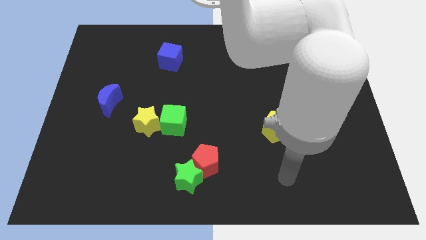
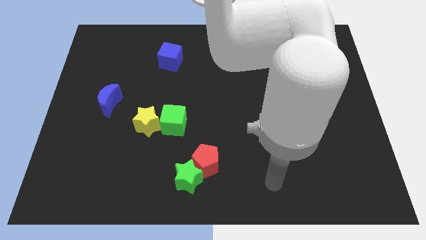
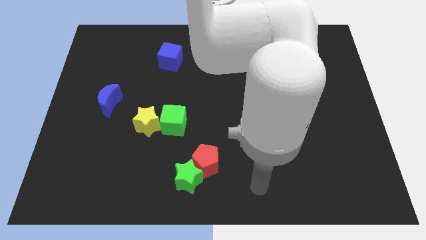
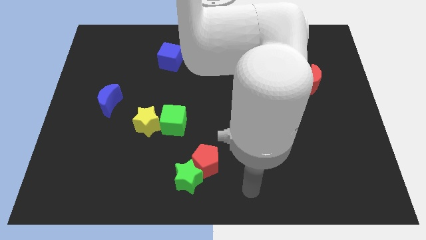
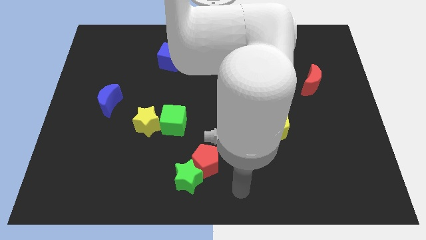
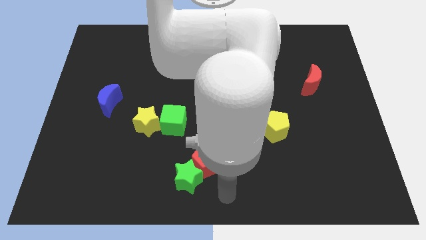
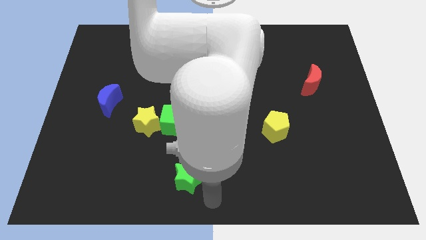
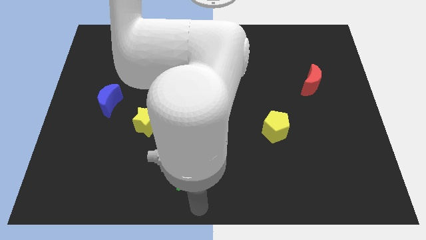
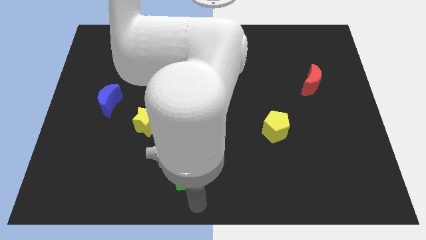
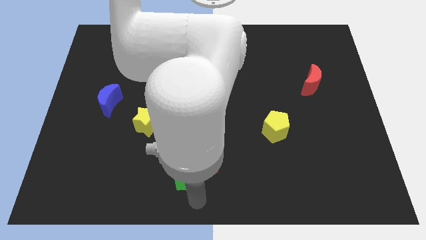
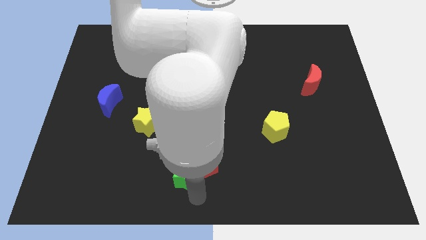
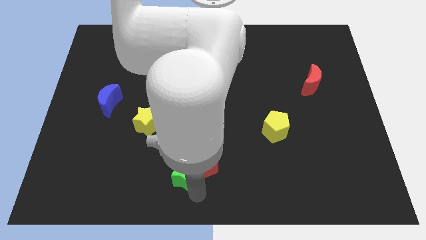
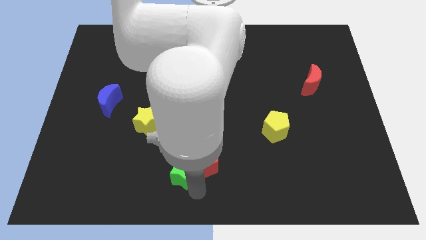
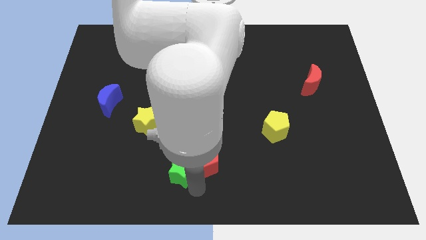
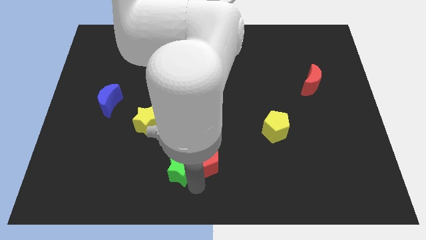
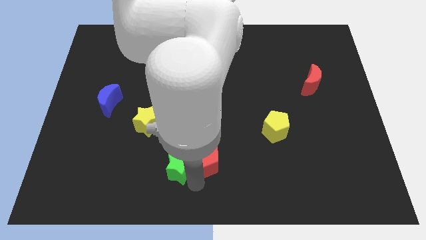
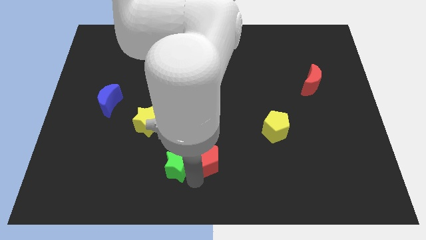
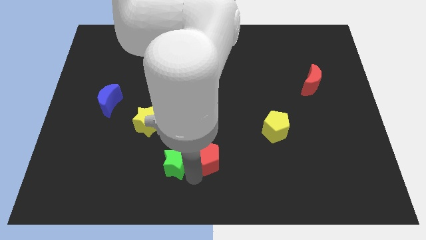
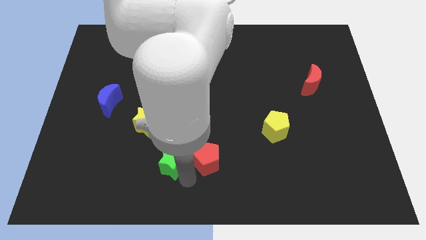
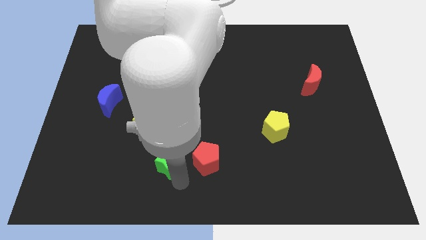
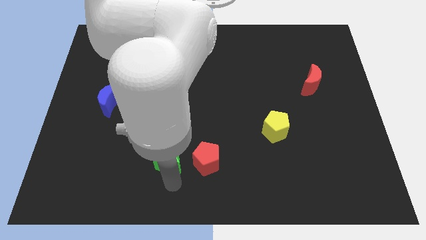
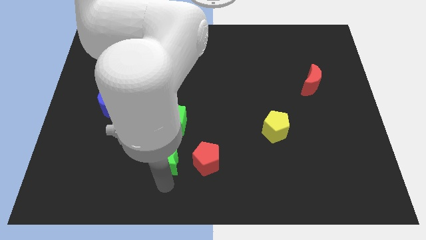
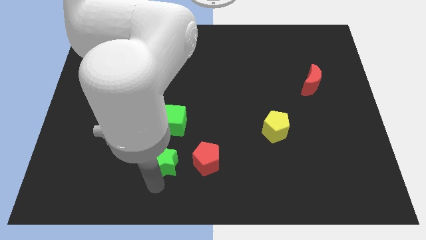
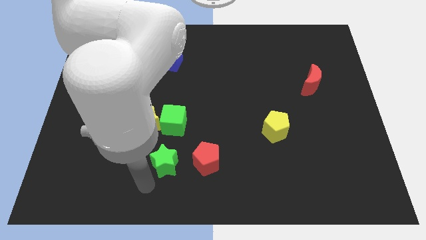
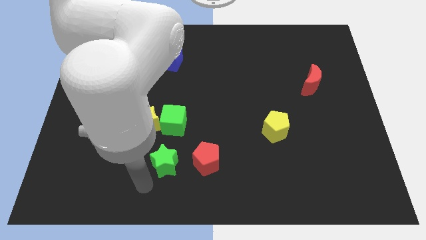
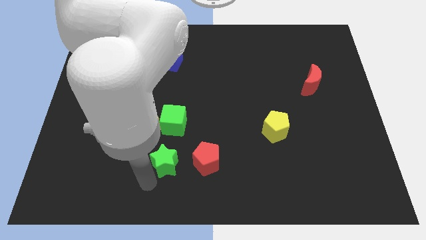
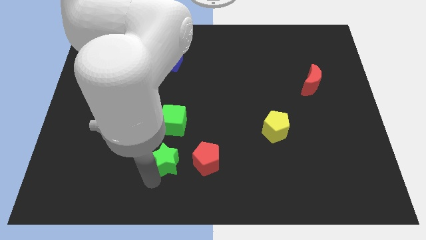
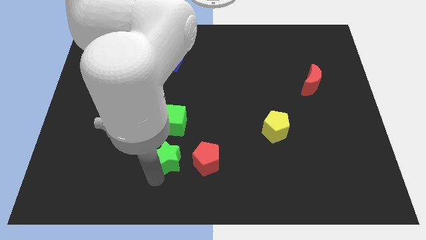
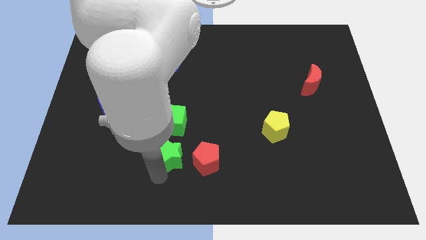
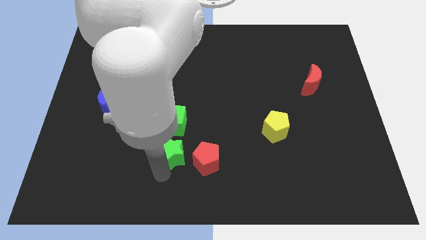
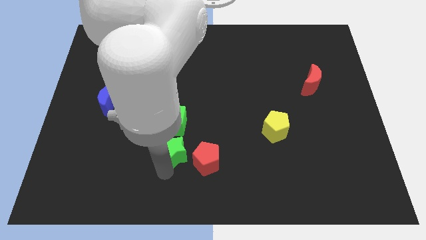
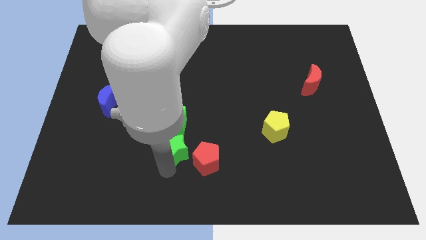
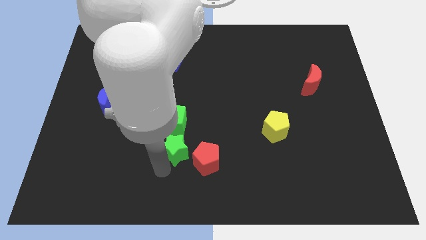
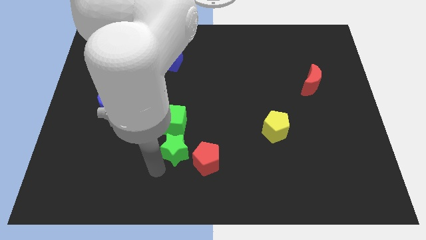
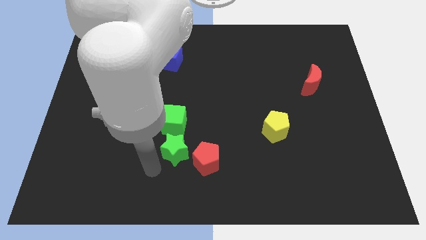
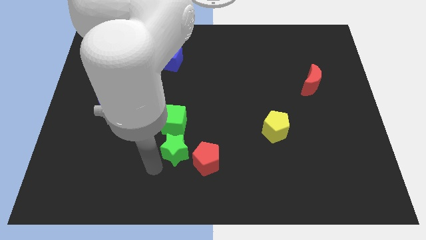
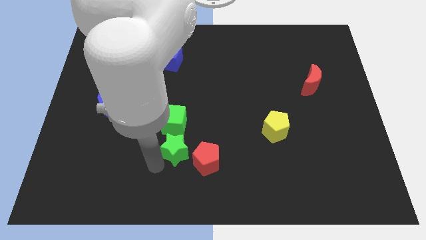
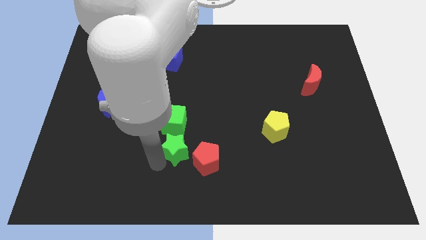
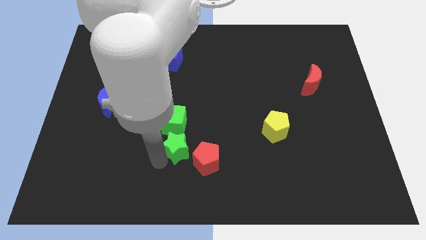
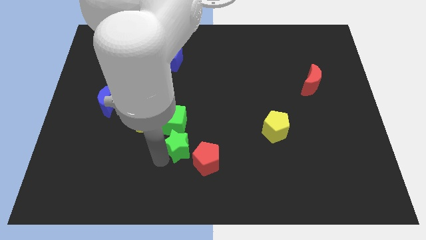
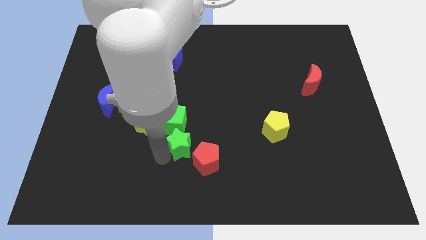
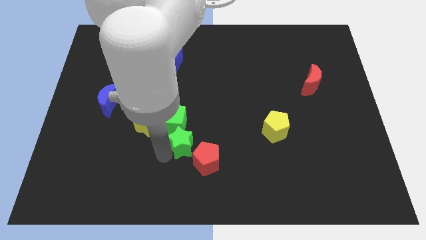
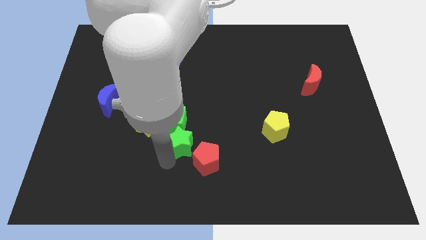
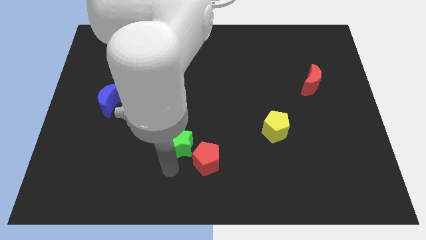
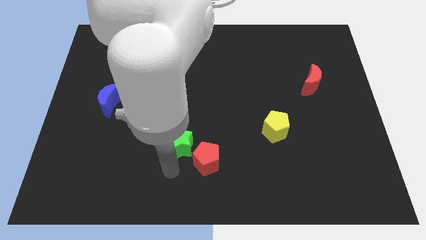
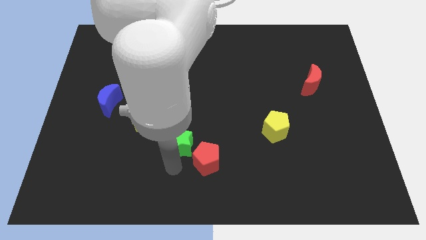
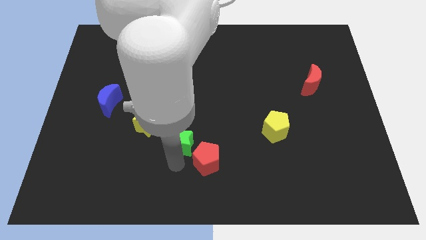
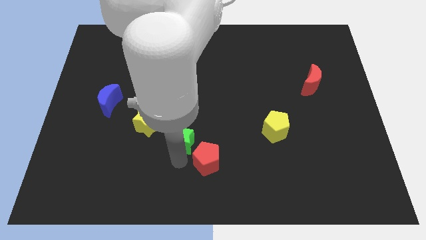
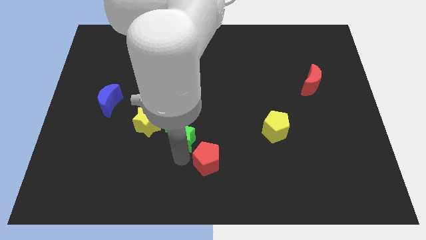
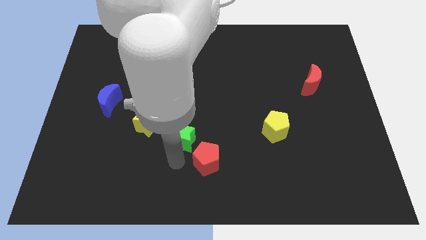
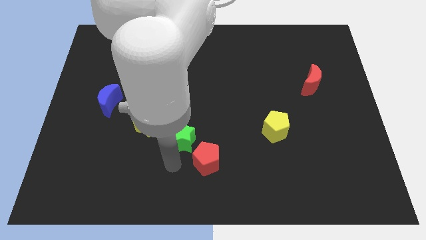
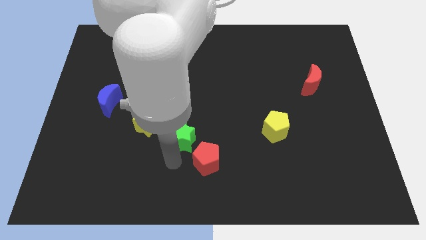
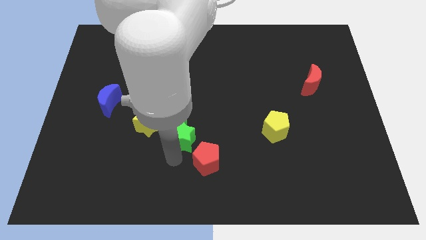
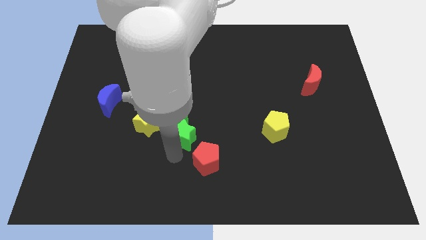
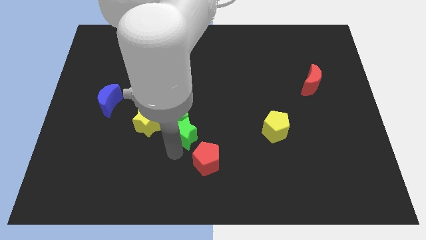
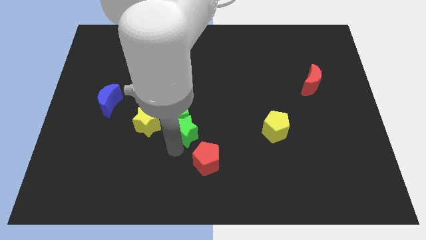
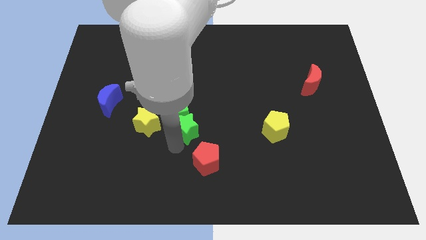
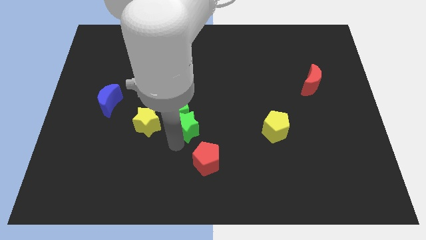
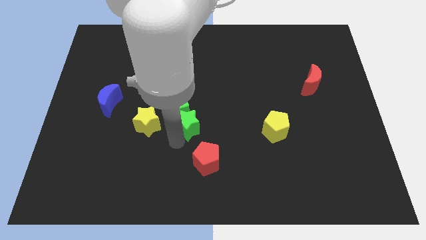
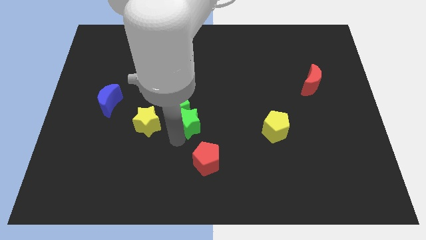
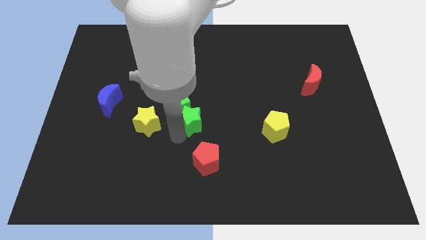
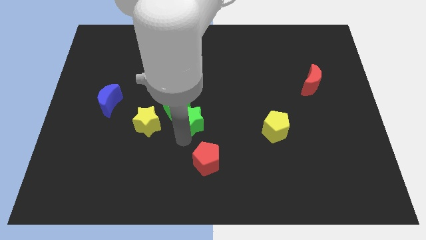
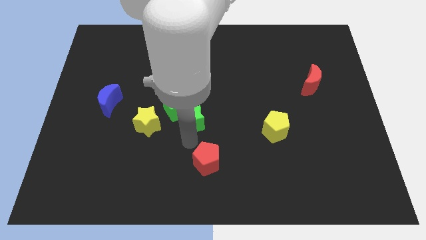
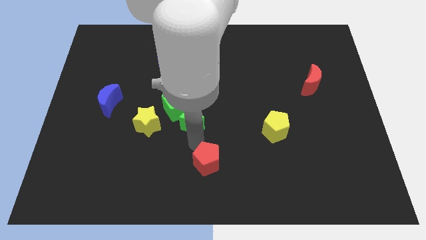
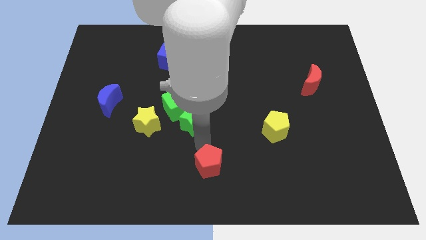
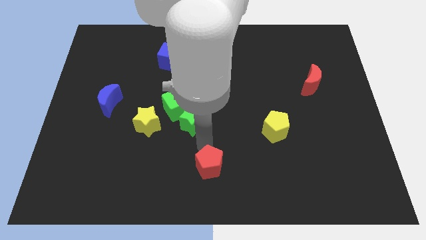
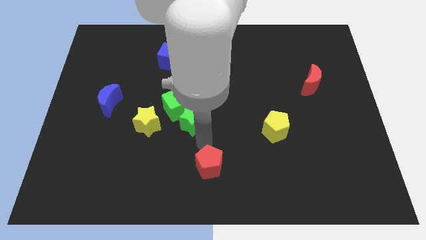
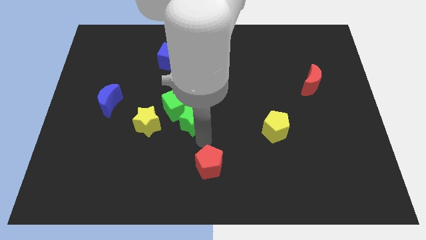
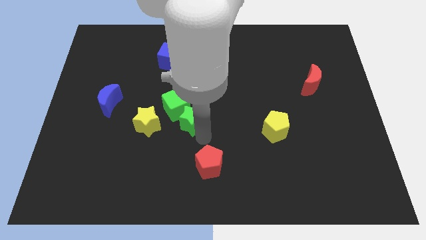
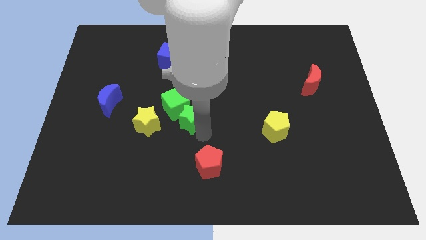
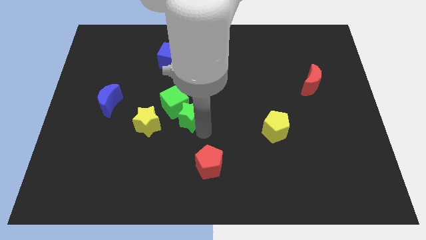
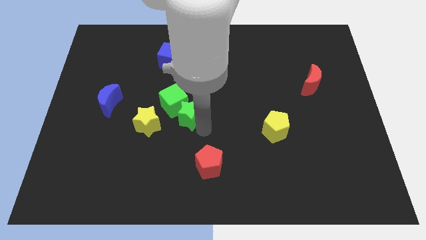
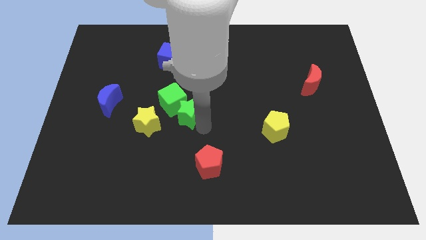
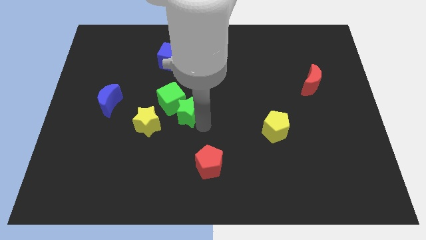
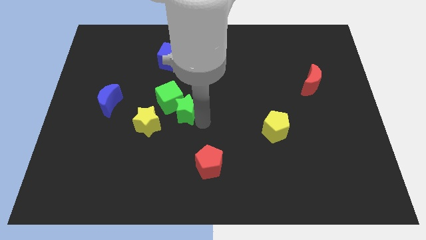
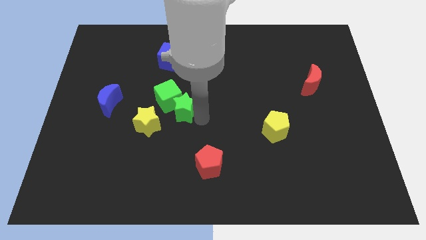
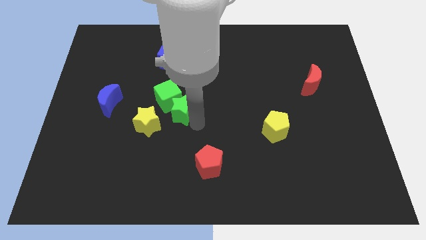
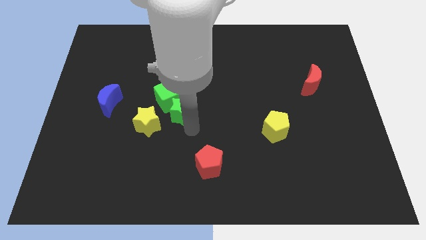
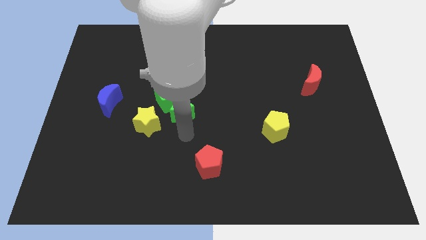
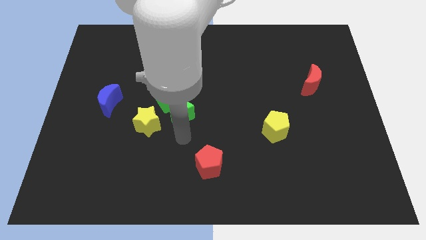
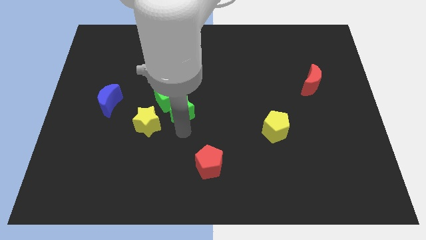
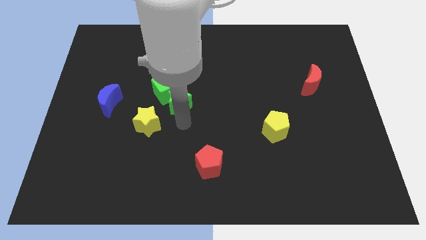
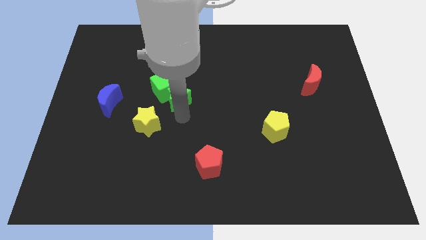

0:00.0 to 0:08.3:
push the green star upwards
